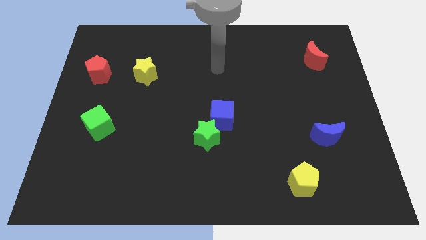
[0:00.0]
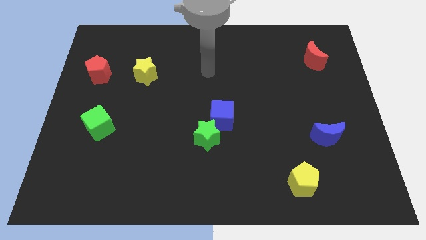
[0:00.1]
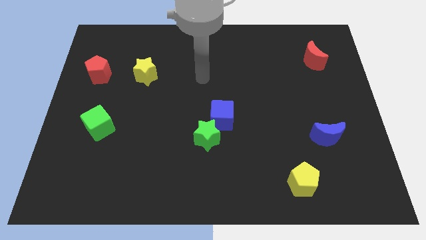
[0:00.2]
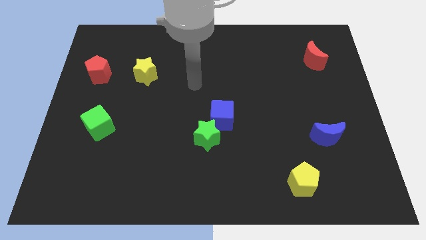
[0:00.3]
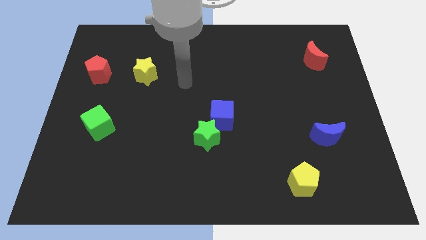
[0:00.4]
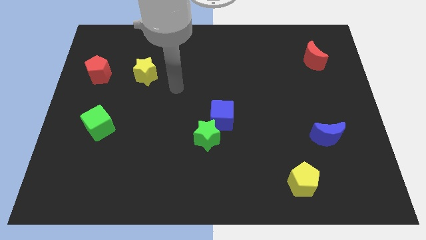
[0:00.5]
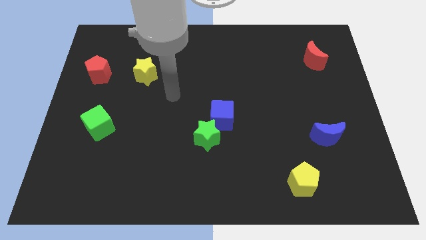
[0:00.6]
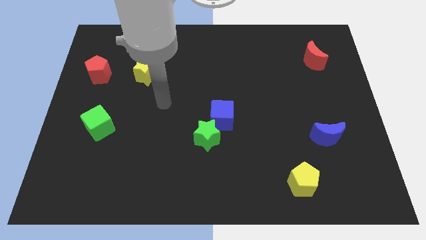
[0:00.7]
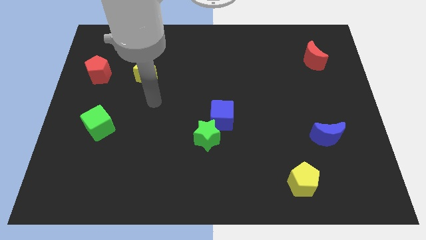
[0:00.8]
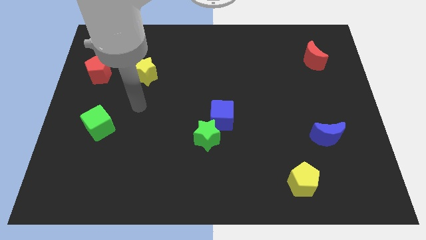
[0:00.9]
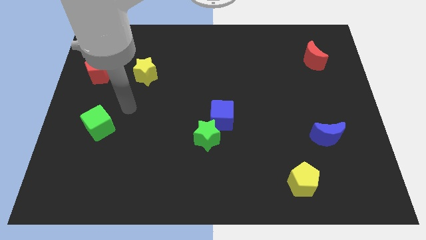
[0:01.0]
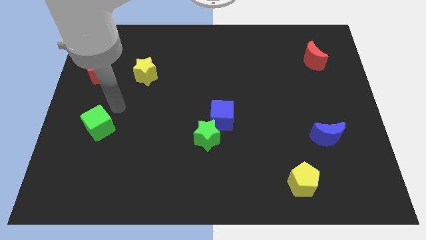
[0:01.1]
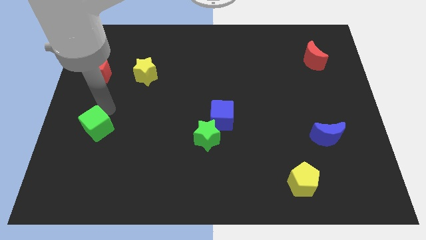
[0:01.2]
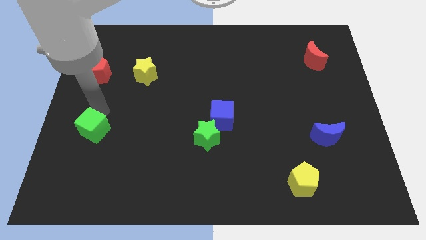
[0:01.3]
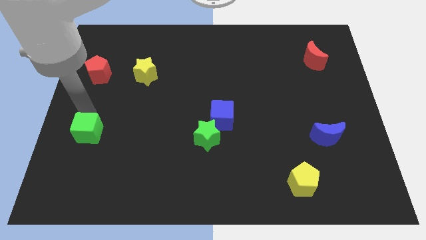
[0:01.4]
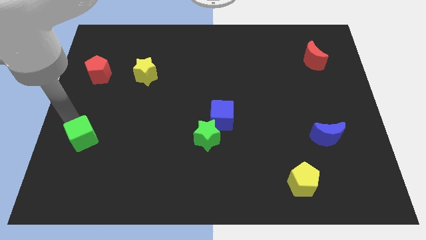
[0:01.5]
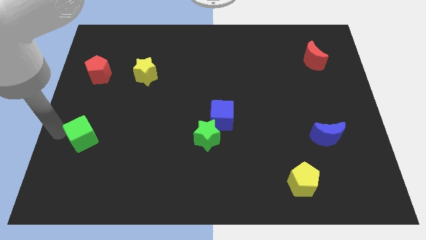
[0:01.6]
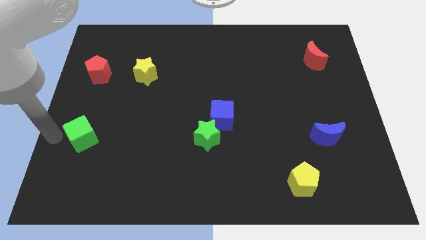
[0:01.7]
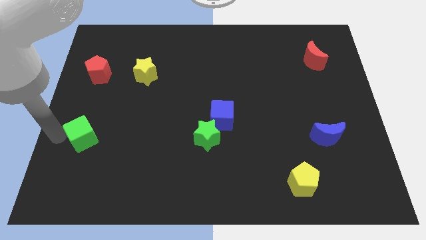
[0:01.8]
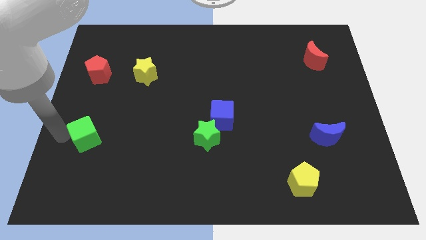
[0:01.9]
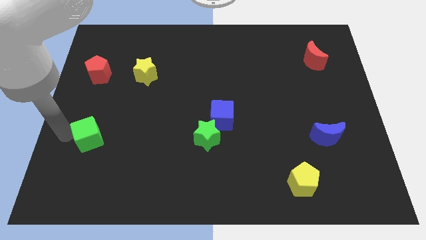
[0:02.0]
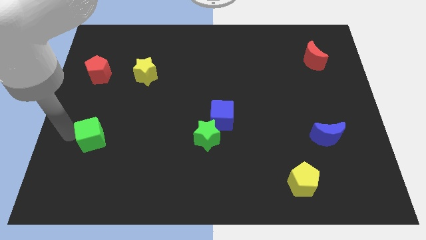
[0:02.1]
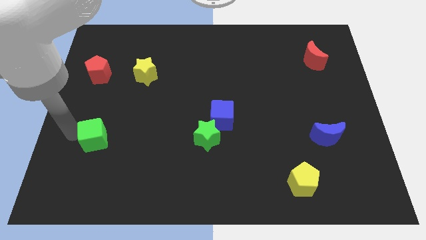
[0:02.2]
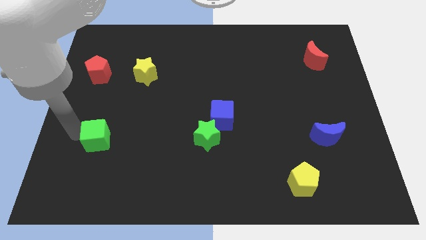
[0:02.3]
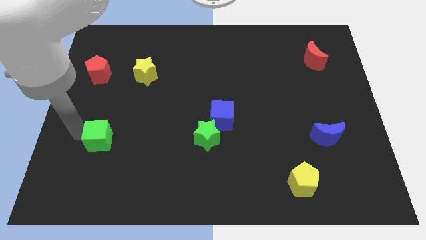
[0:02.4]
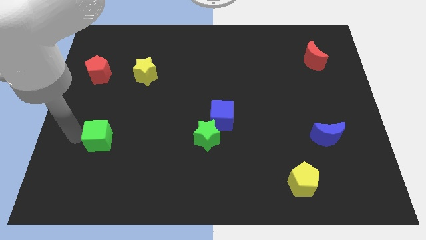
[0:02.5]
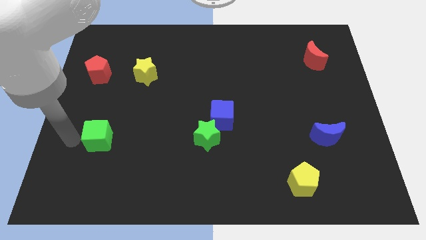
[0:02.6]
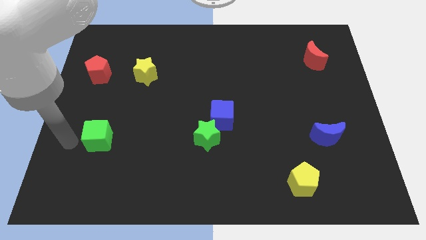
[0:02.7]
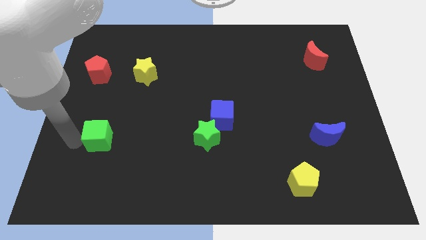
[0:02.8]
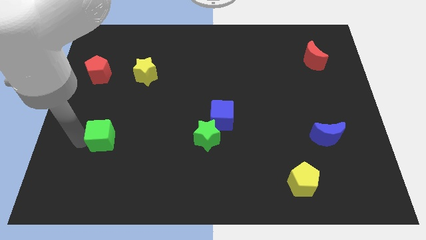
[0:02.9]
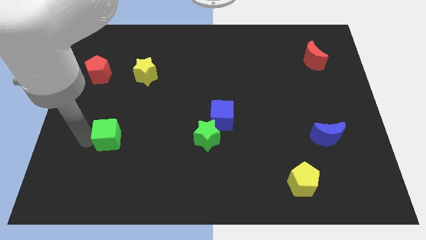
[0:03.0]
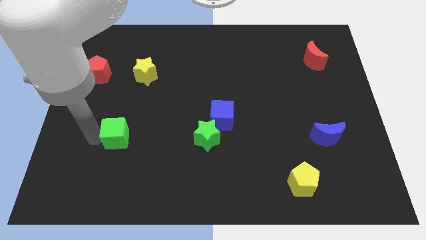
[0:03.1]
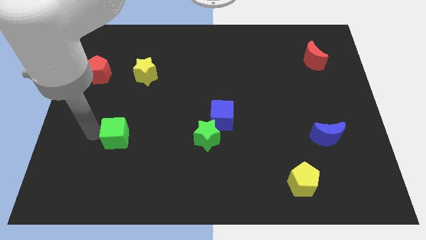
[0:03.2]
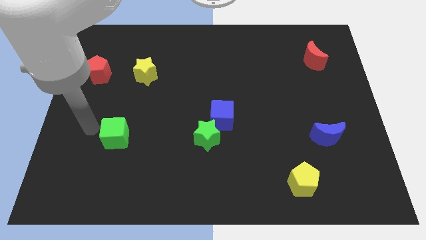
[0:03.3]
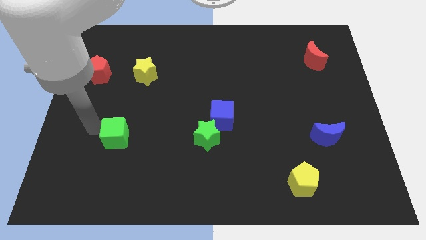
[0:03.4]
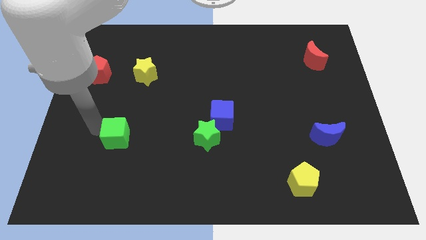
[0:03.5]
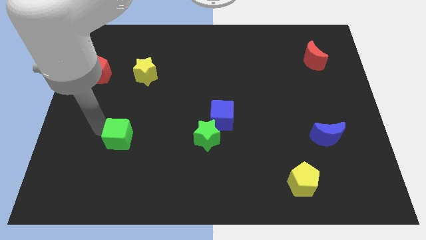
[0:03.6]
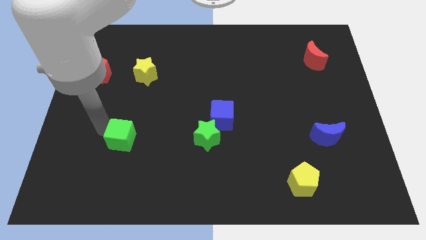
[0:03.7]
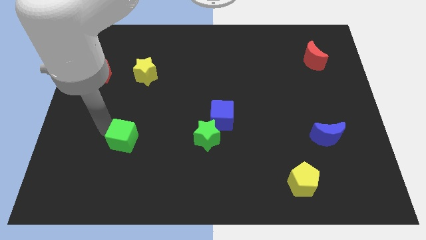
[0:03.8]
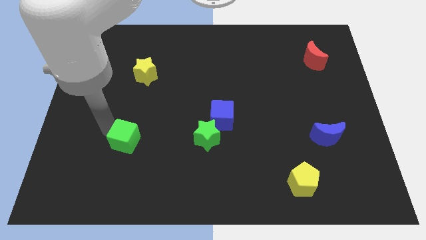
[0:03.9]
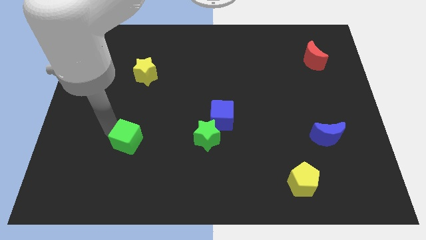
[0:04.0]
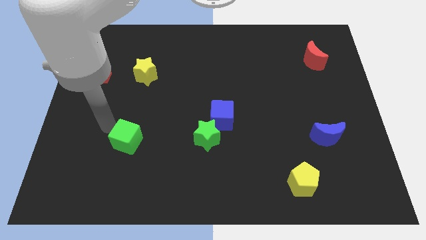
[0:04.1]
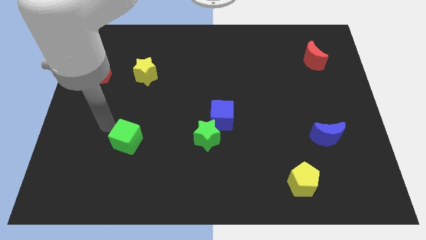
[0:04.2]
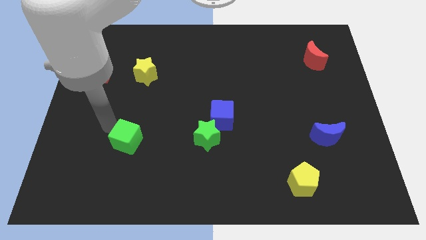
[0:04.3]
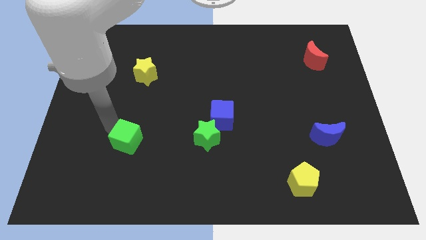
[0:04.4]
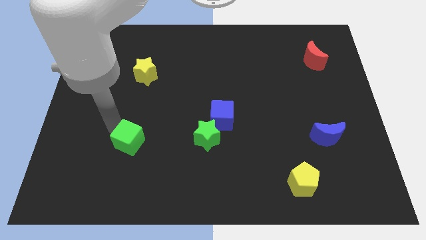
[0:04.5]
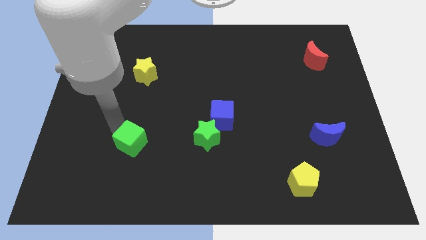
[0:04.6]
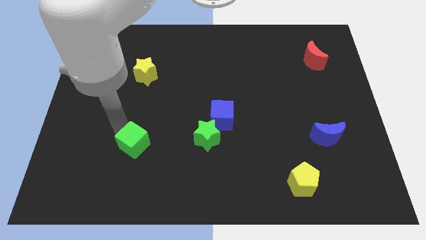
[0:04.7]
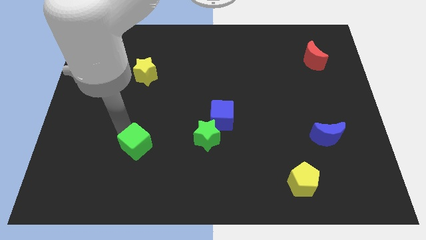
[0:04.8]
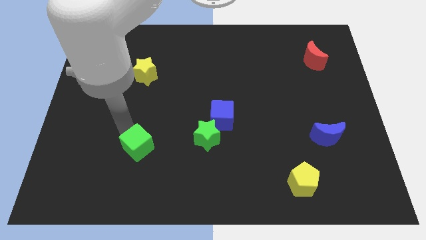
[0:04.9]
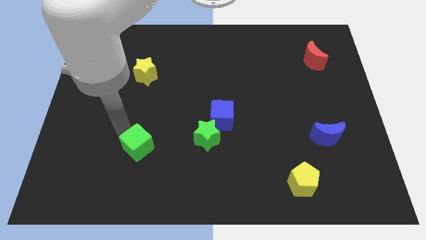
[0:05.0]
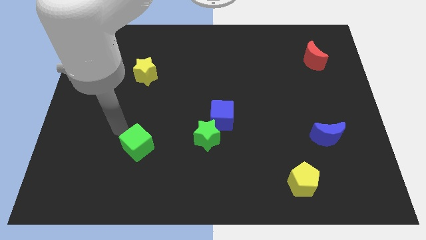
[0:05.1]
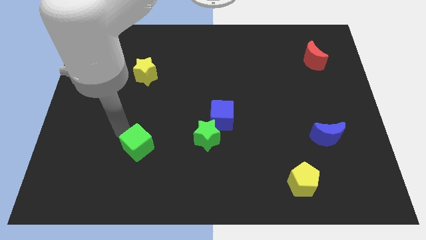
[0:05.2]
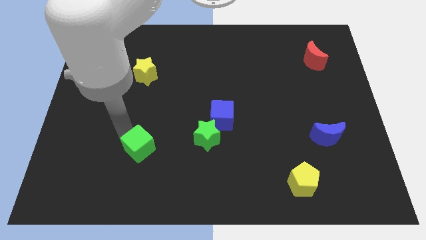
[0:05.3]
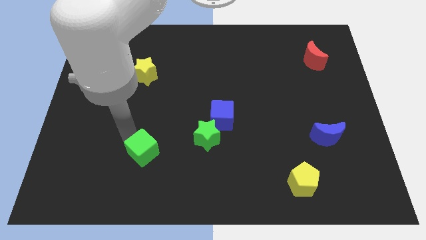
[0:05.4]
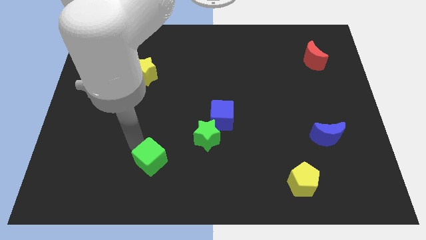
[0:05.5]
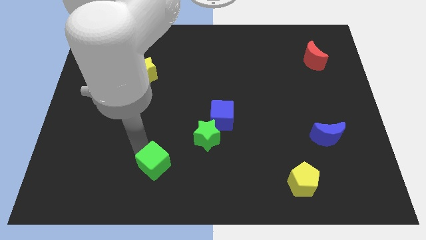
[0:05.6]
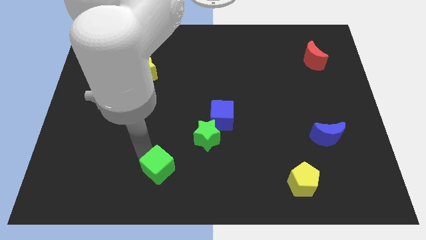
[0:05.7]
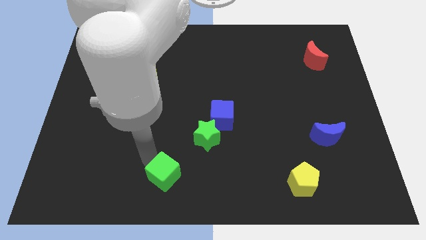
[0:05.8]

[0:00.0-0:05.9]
slide the green cube to the bottom
